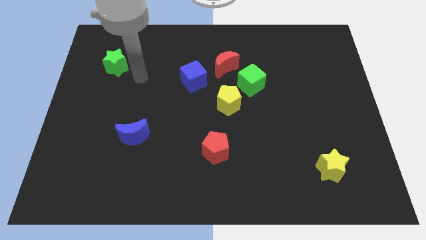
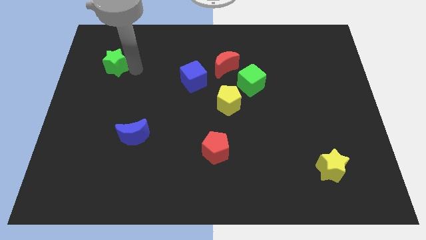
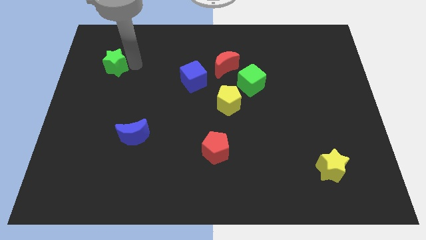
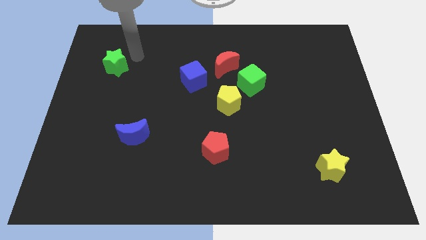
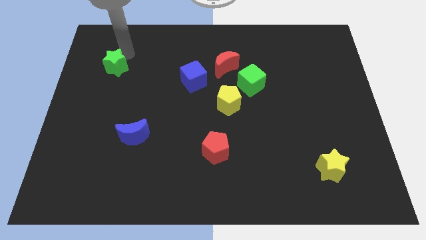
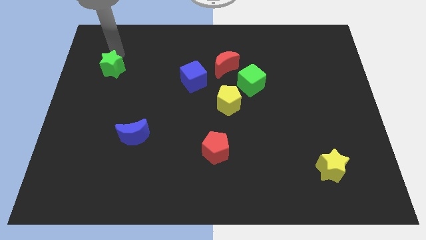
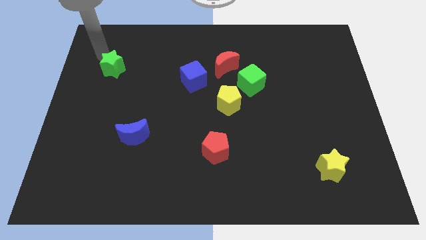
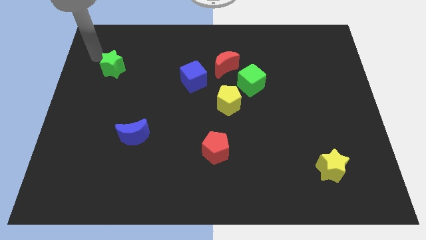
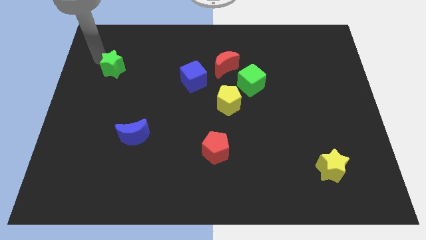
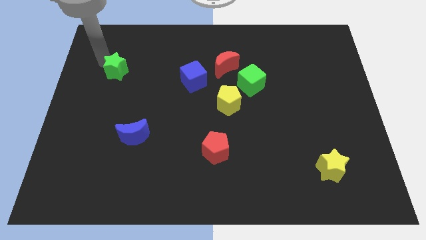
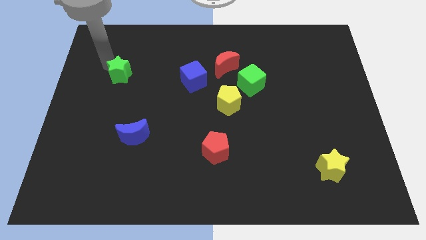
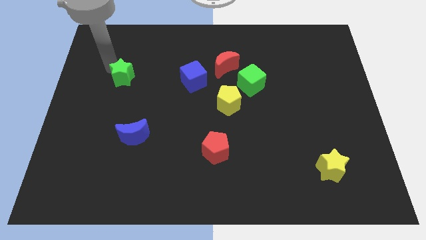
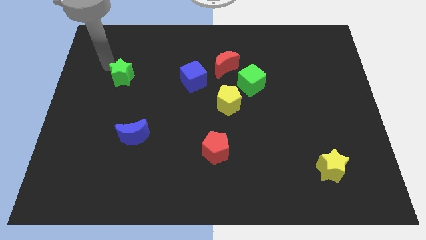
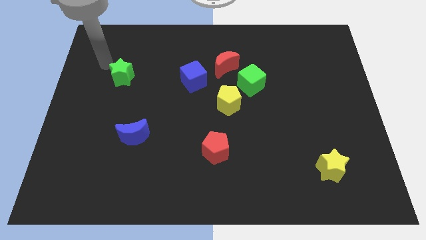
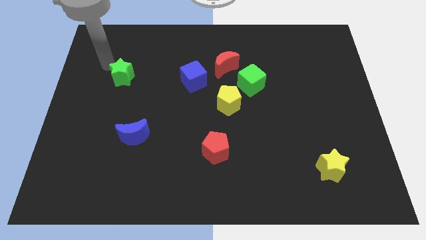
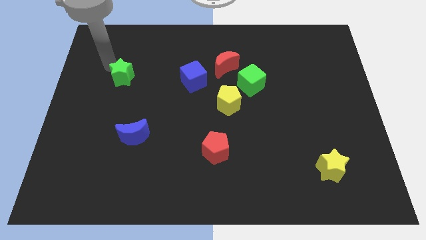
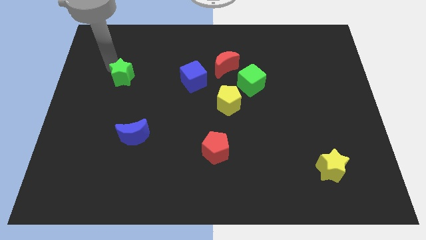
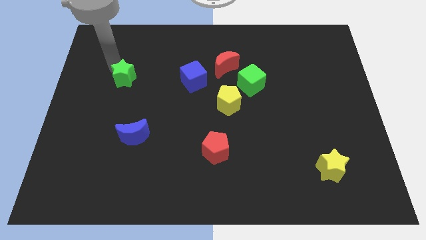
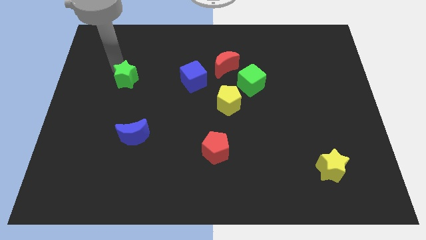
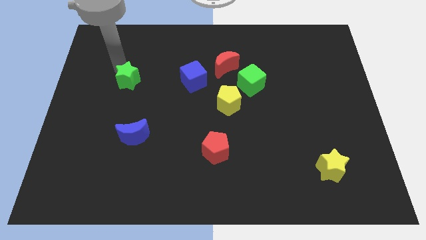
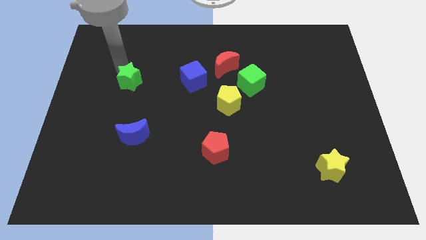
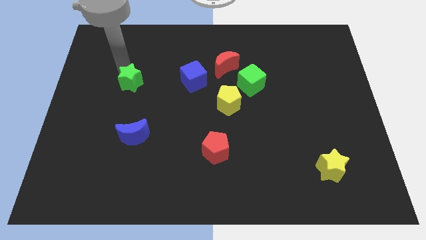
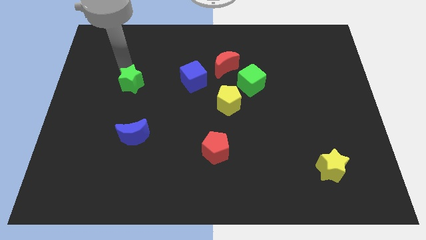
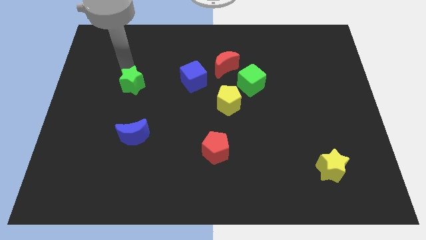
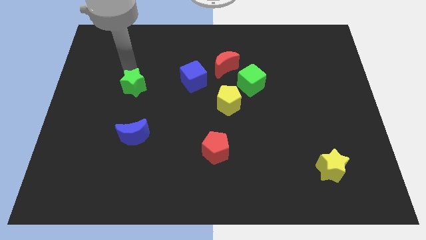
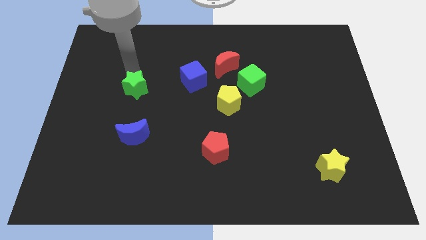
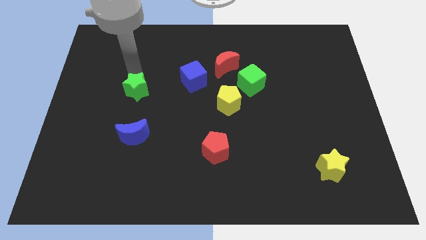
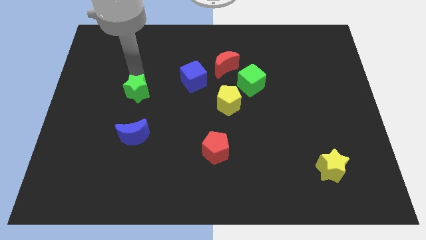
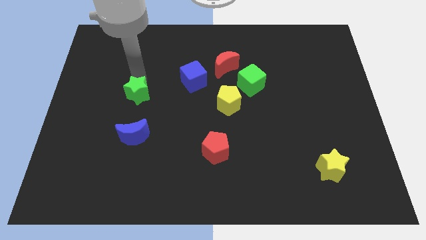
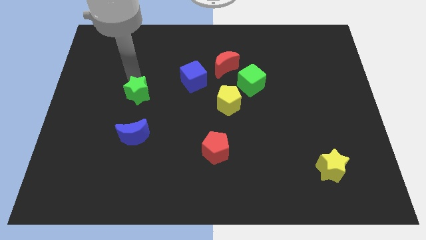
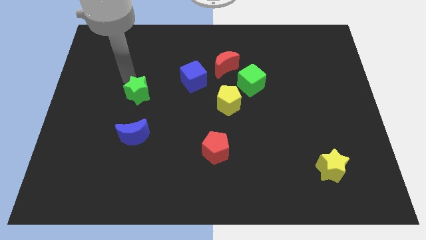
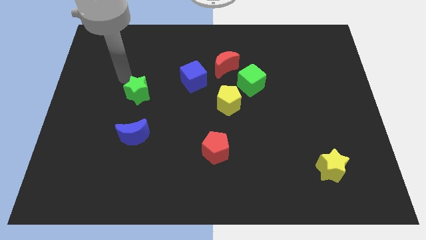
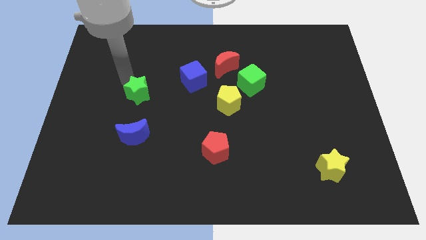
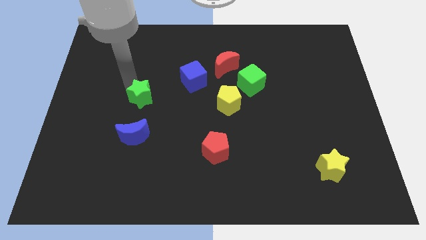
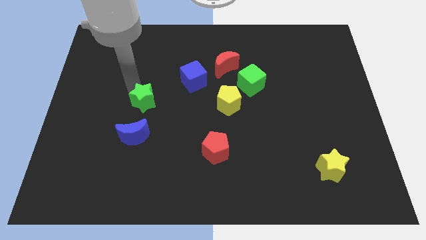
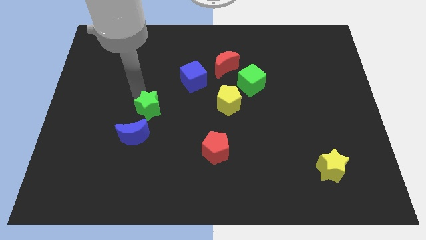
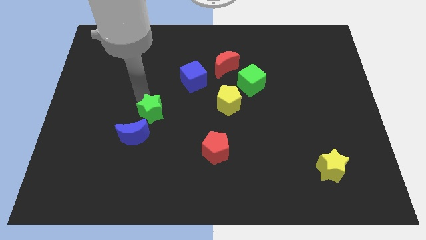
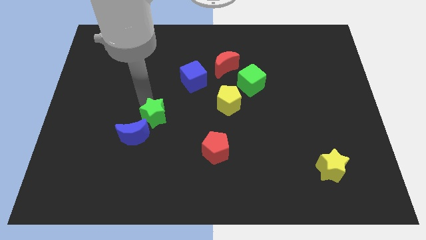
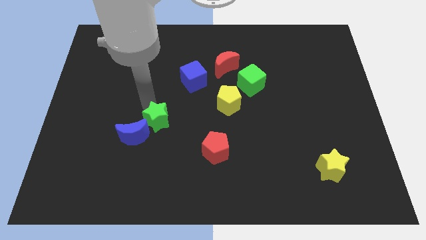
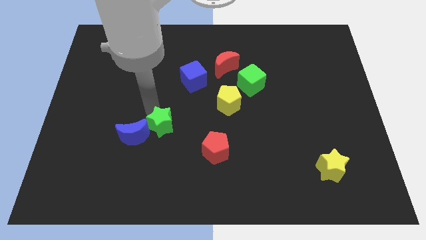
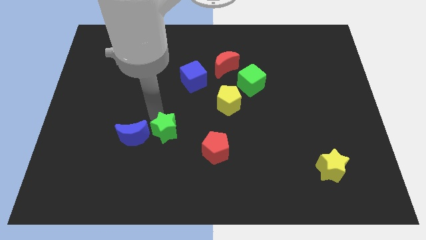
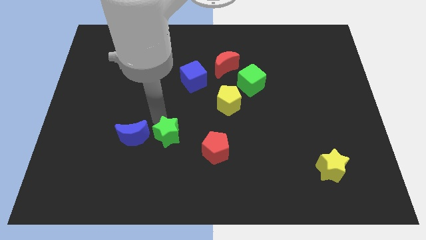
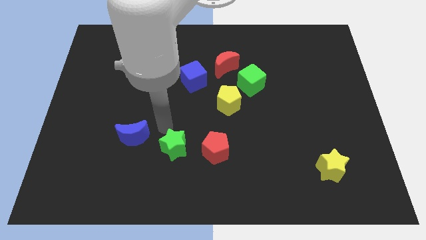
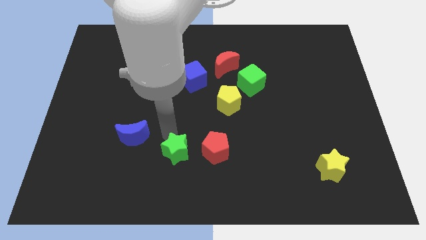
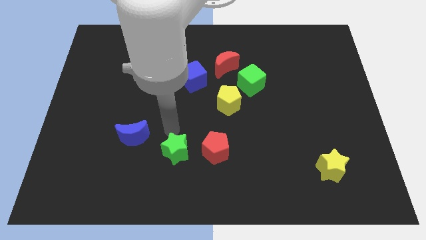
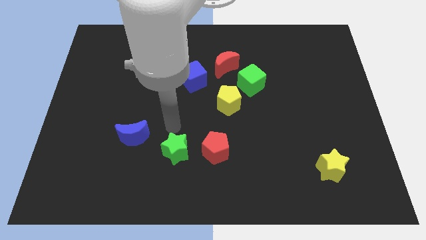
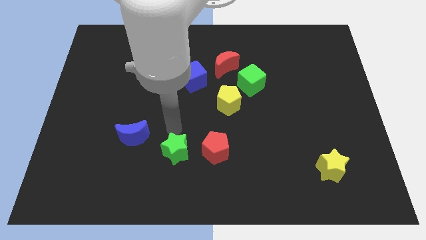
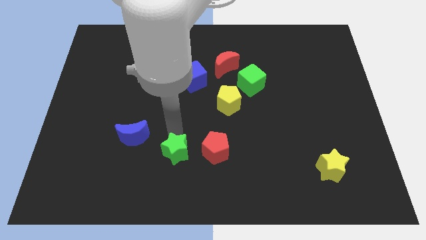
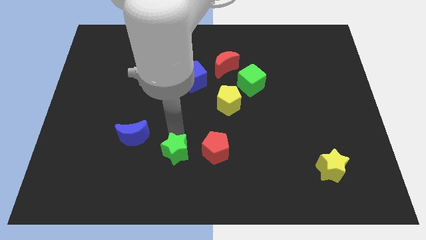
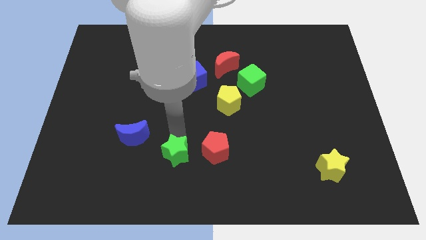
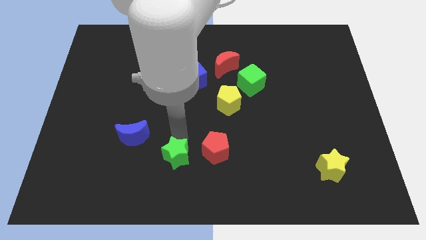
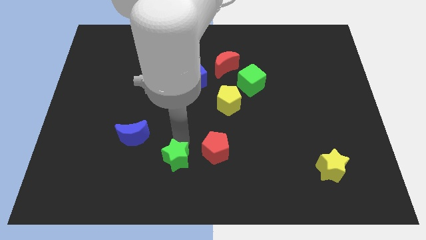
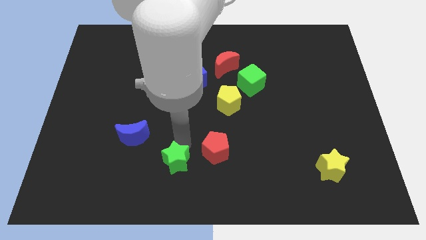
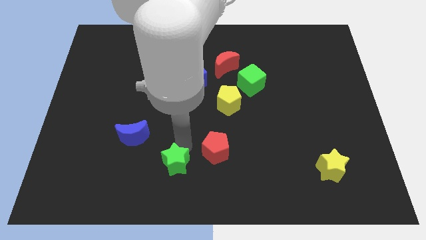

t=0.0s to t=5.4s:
put the green star to the bottom side
